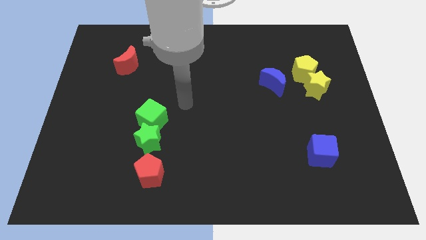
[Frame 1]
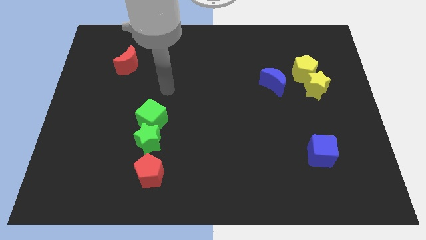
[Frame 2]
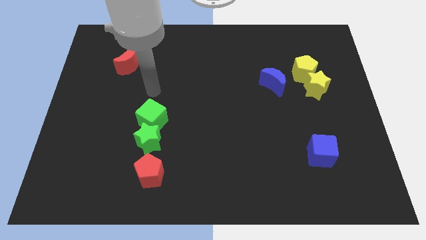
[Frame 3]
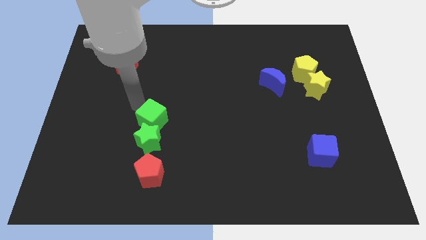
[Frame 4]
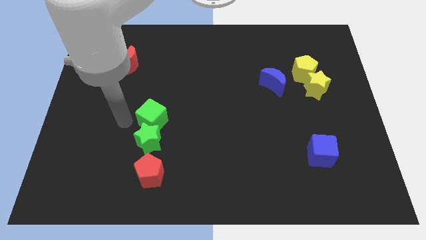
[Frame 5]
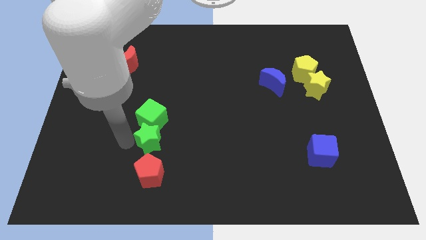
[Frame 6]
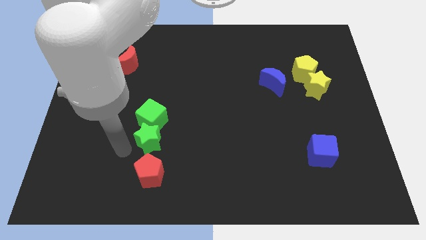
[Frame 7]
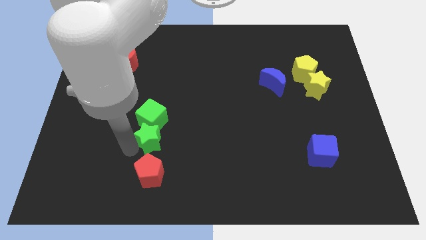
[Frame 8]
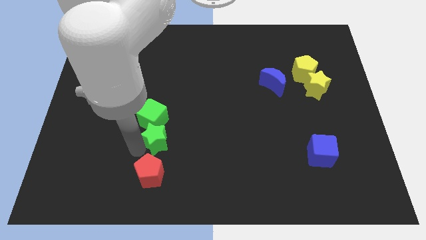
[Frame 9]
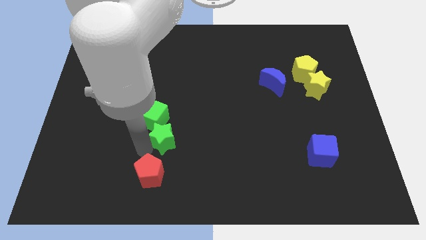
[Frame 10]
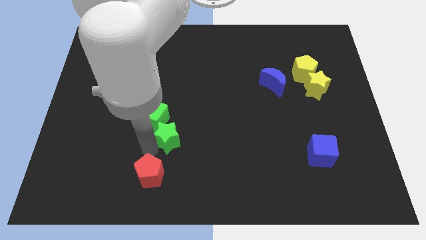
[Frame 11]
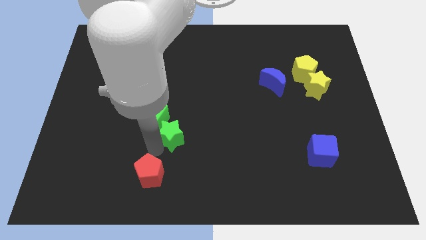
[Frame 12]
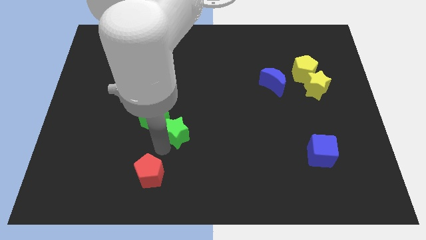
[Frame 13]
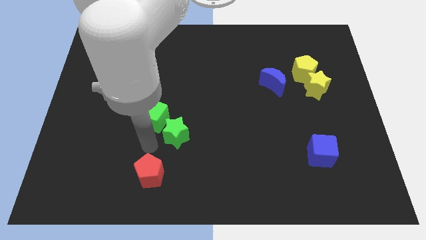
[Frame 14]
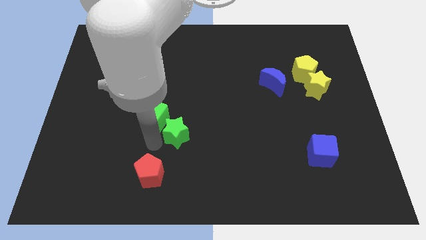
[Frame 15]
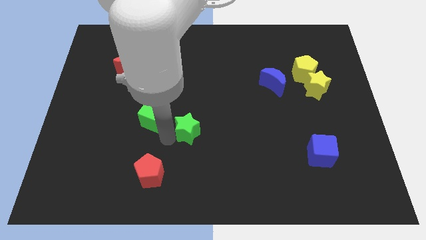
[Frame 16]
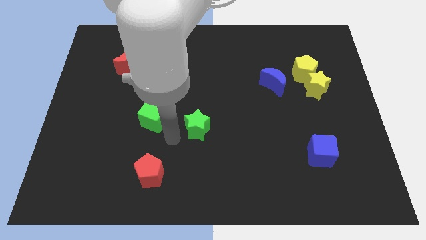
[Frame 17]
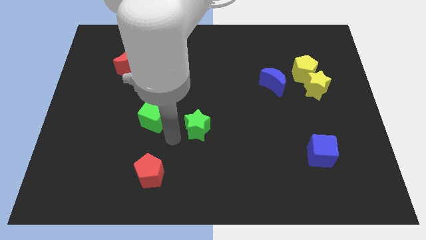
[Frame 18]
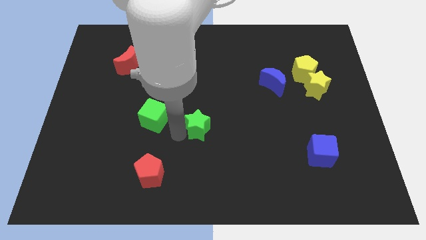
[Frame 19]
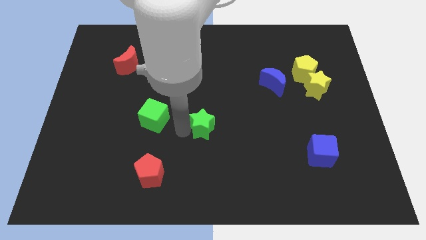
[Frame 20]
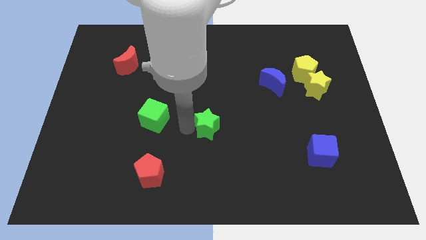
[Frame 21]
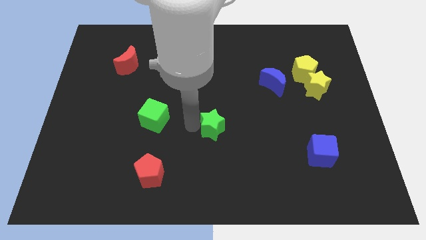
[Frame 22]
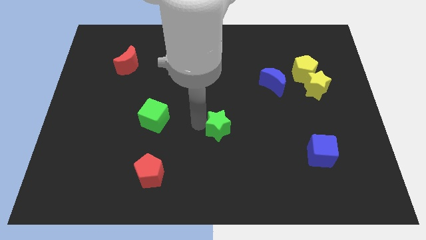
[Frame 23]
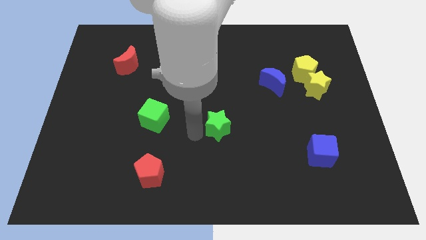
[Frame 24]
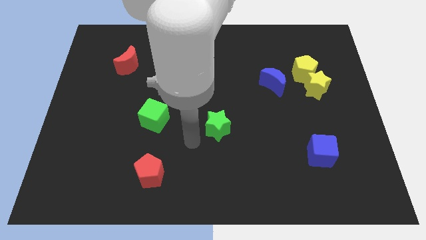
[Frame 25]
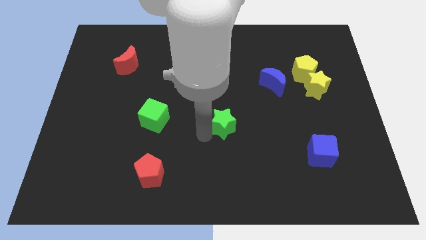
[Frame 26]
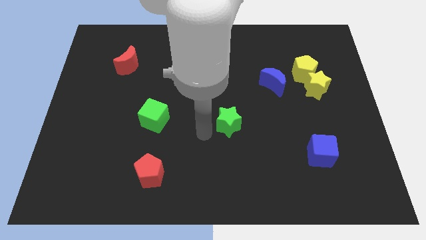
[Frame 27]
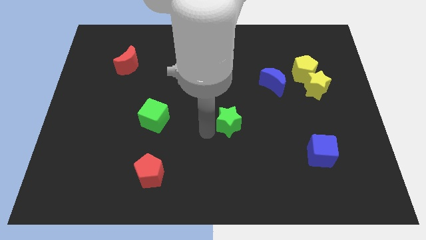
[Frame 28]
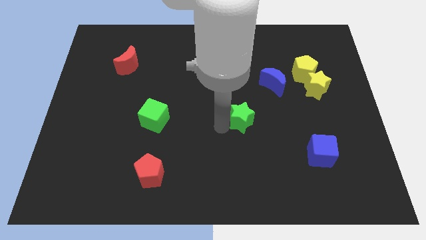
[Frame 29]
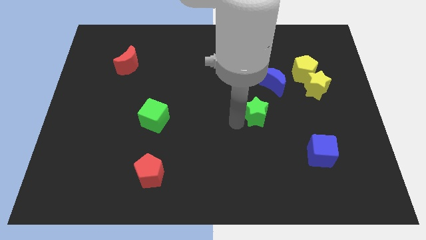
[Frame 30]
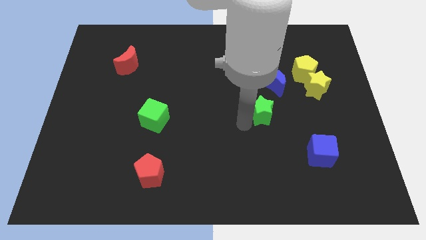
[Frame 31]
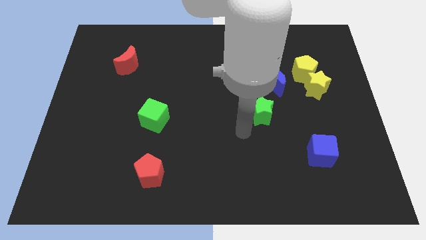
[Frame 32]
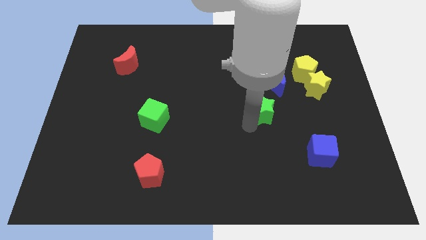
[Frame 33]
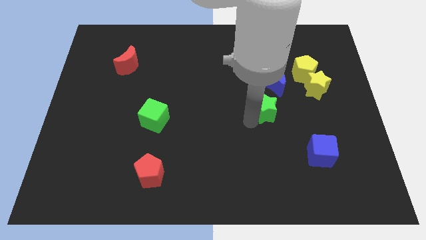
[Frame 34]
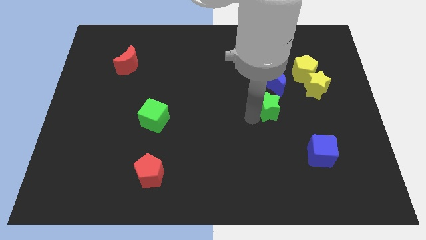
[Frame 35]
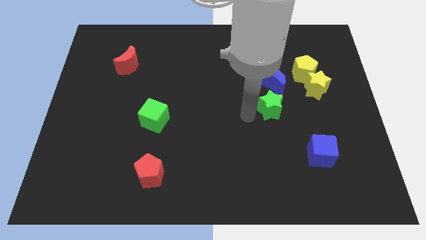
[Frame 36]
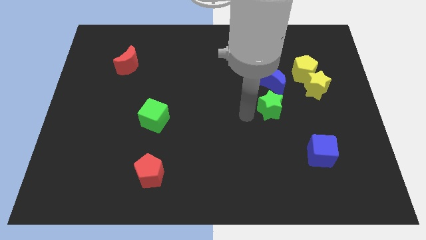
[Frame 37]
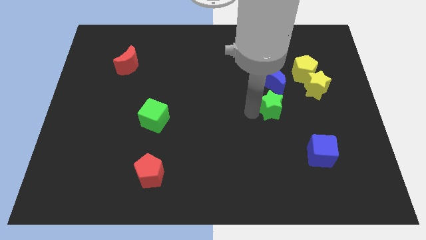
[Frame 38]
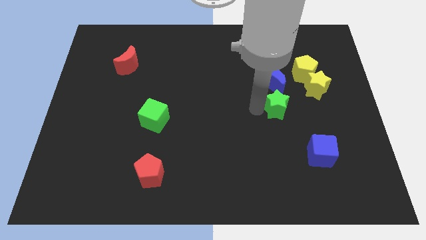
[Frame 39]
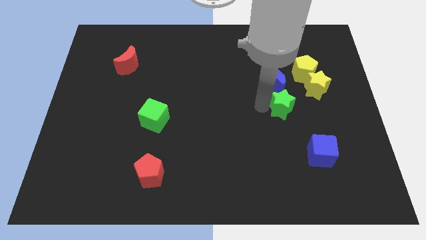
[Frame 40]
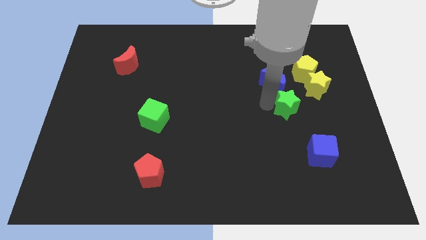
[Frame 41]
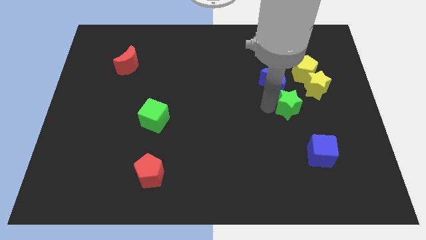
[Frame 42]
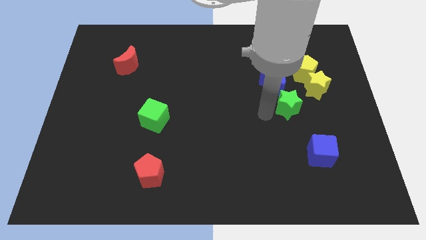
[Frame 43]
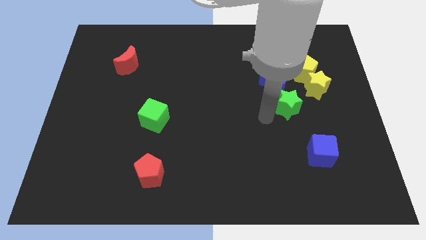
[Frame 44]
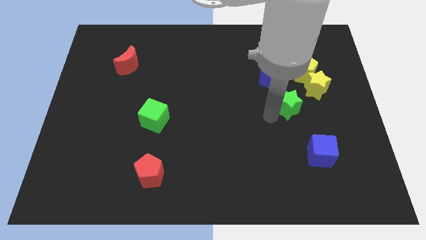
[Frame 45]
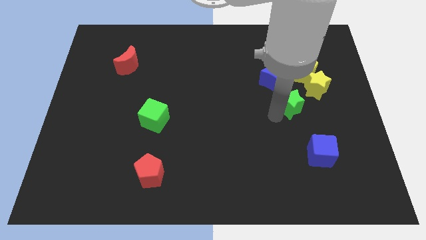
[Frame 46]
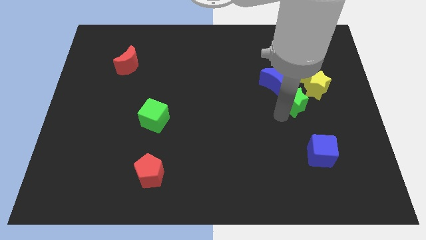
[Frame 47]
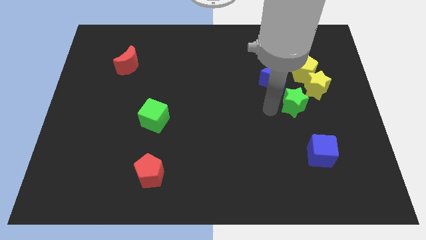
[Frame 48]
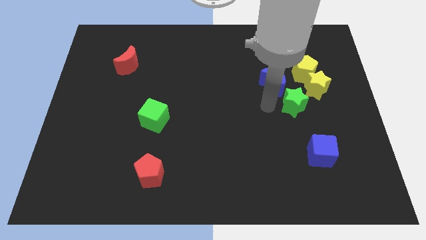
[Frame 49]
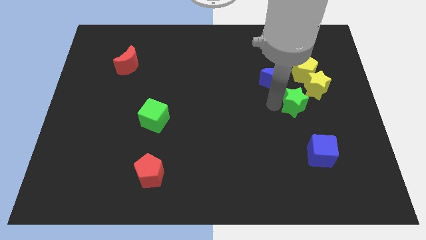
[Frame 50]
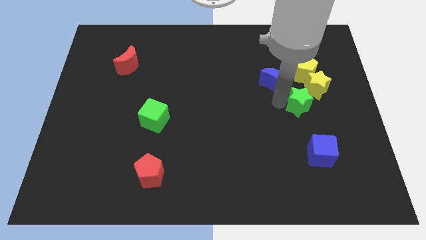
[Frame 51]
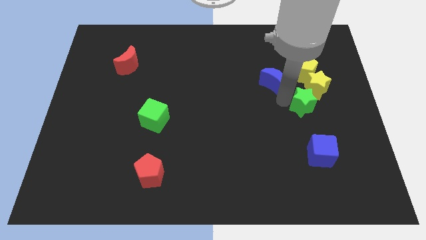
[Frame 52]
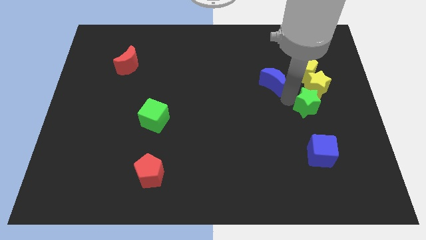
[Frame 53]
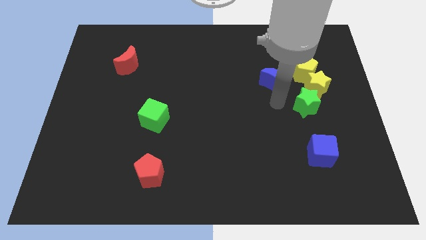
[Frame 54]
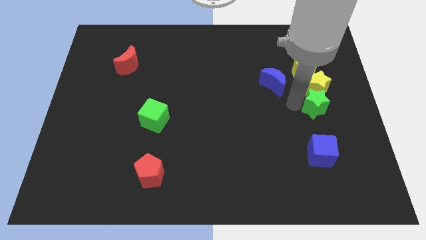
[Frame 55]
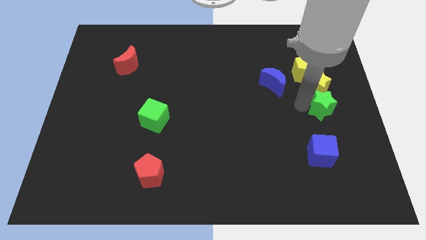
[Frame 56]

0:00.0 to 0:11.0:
slide the green star to the right side of the board

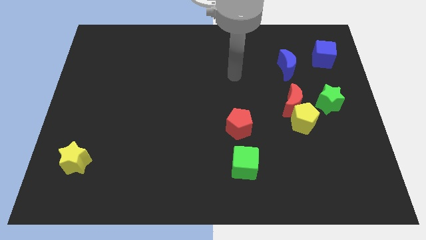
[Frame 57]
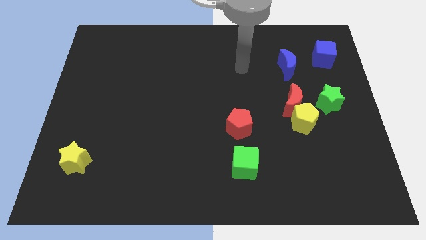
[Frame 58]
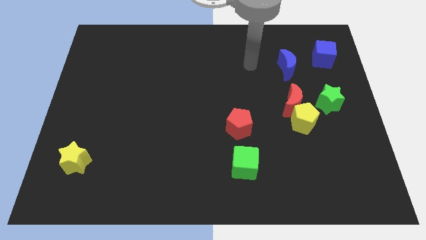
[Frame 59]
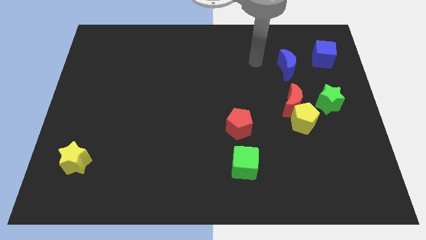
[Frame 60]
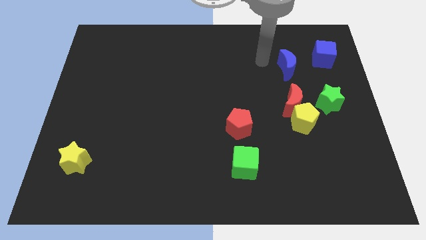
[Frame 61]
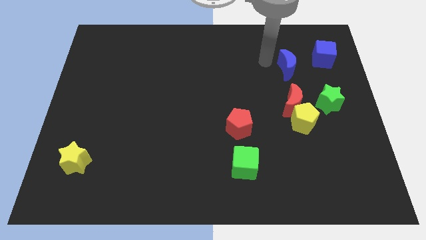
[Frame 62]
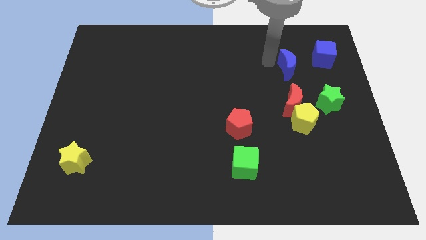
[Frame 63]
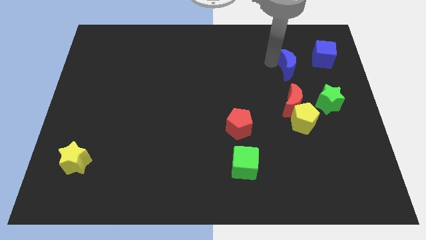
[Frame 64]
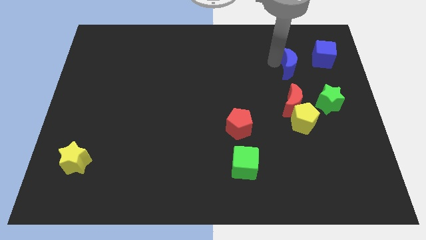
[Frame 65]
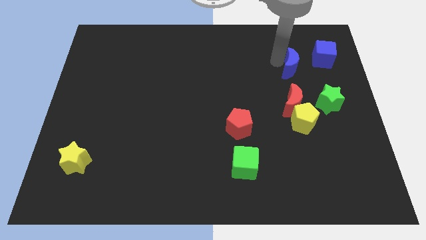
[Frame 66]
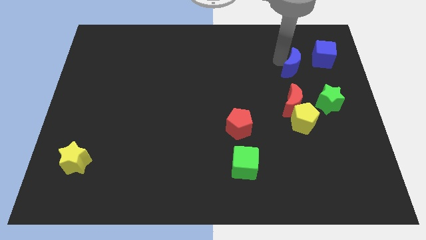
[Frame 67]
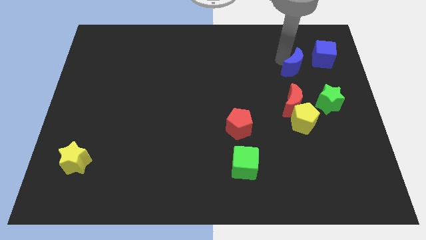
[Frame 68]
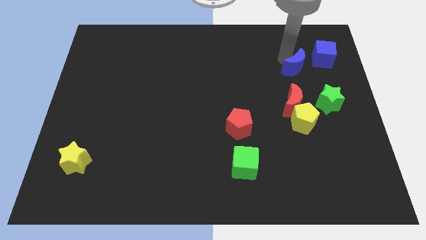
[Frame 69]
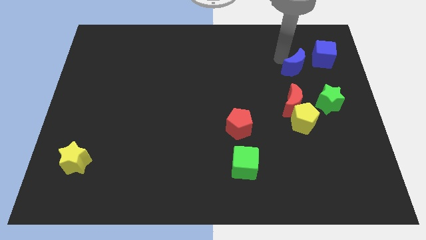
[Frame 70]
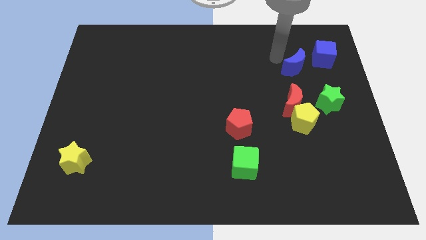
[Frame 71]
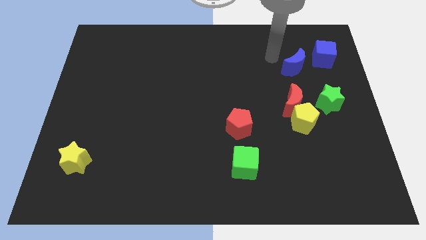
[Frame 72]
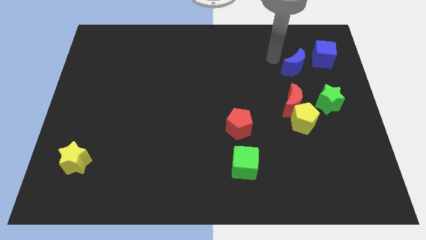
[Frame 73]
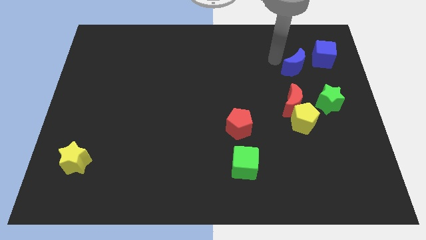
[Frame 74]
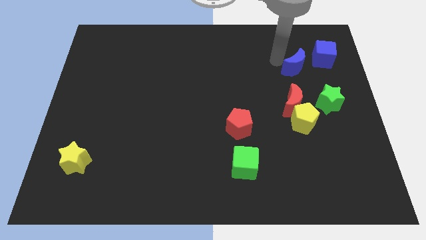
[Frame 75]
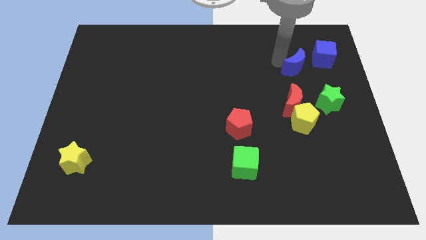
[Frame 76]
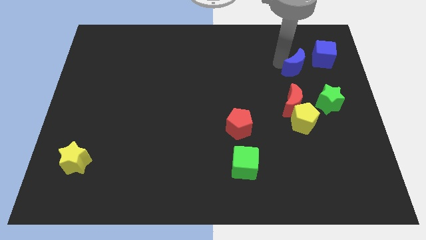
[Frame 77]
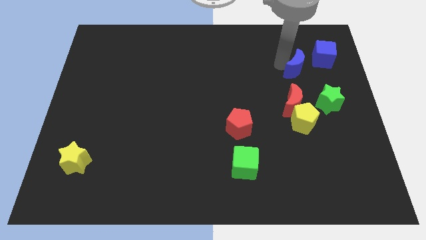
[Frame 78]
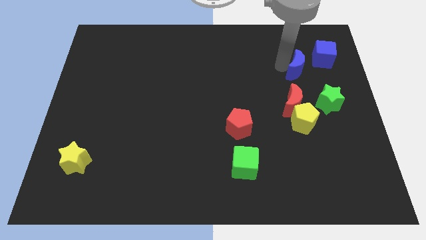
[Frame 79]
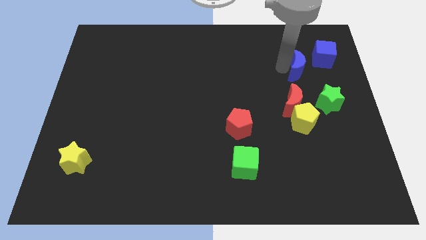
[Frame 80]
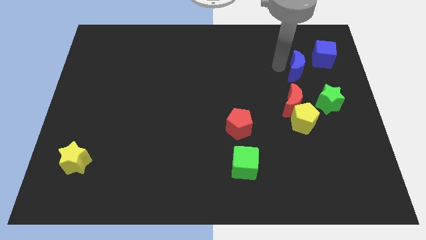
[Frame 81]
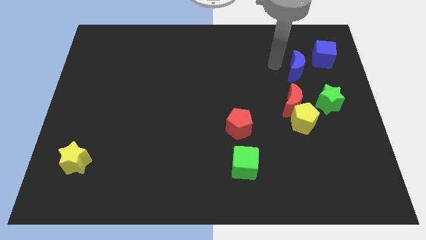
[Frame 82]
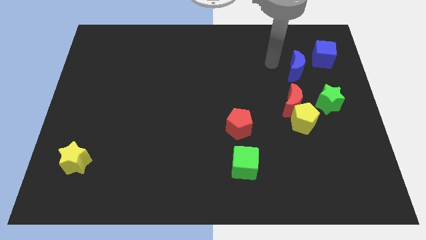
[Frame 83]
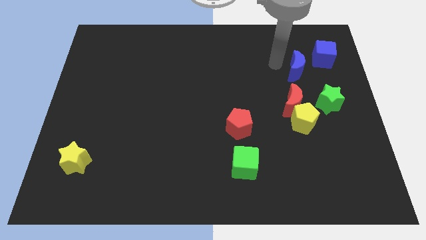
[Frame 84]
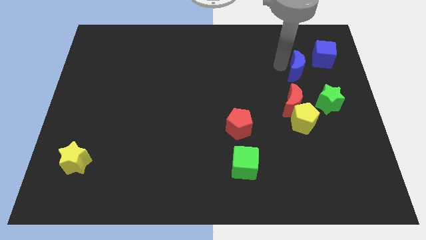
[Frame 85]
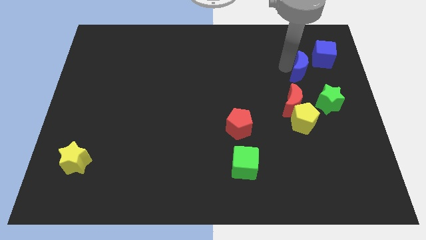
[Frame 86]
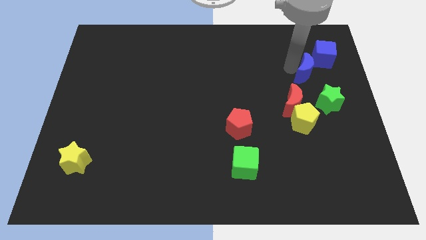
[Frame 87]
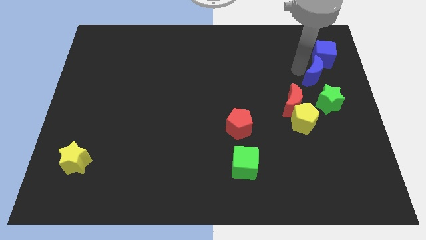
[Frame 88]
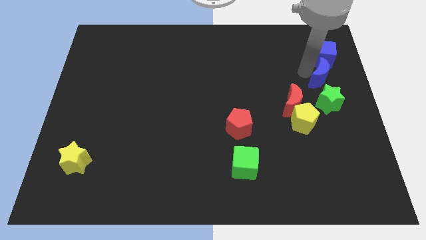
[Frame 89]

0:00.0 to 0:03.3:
slide the blue moon to the right side of the board
